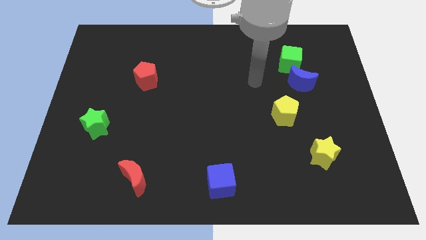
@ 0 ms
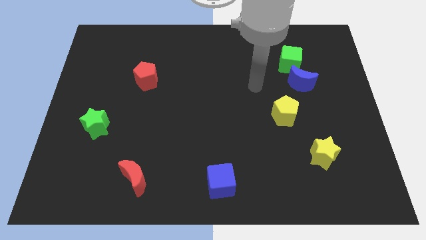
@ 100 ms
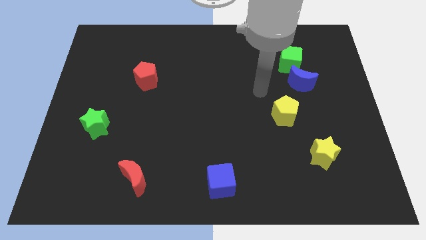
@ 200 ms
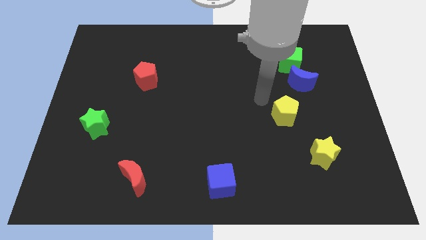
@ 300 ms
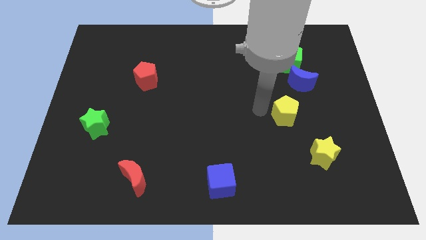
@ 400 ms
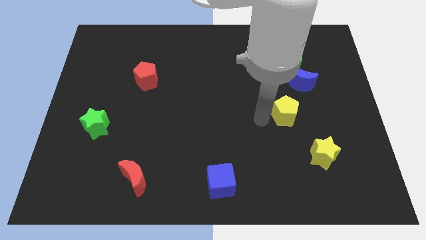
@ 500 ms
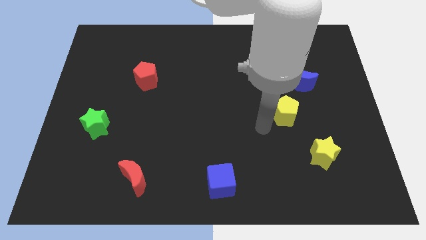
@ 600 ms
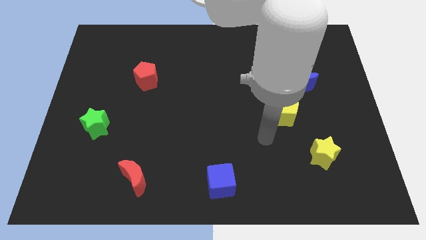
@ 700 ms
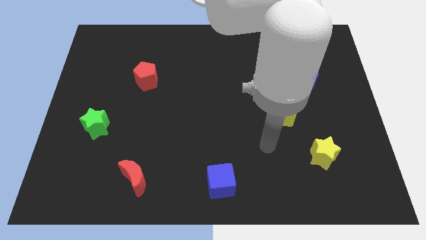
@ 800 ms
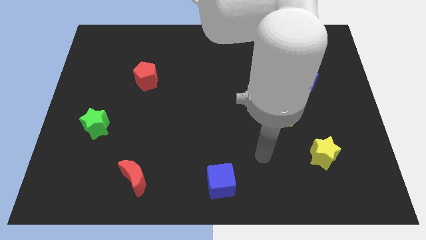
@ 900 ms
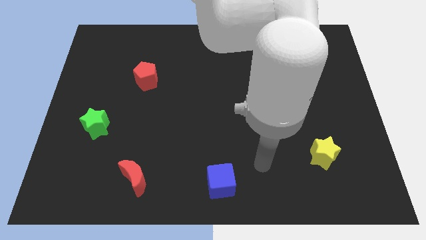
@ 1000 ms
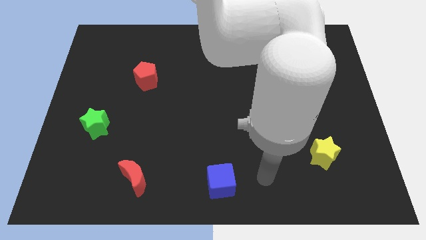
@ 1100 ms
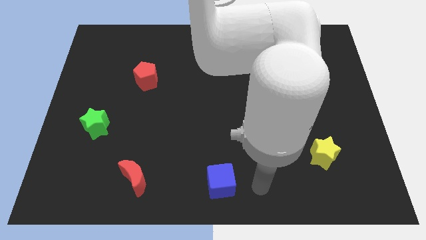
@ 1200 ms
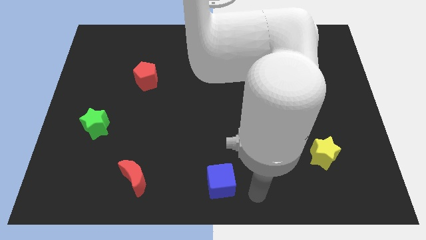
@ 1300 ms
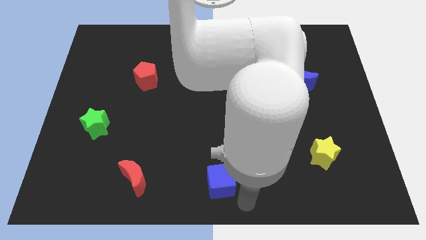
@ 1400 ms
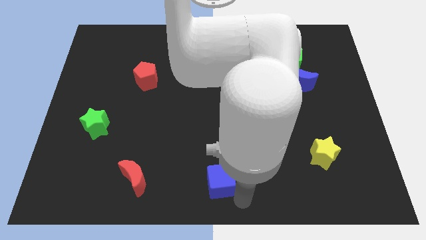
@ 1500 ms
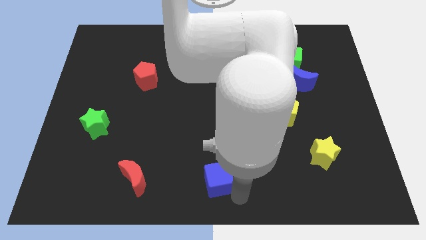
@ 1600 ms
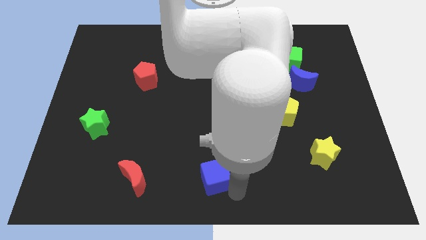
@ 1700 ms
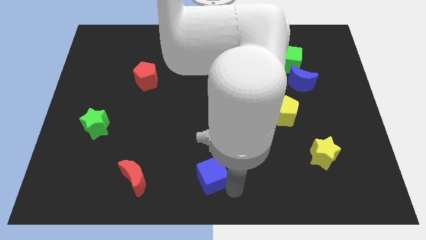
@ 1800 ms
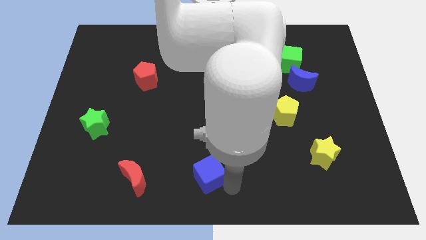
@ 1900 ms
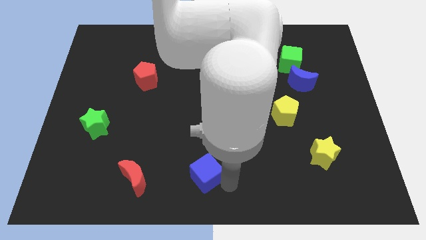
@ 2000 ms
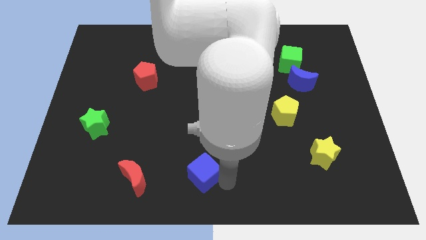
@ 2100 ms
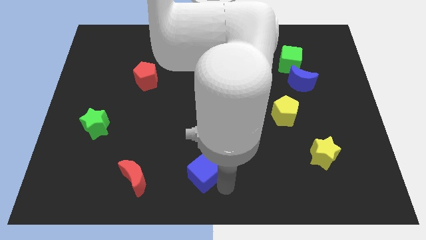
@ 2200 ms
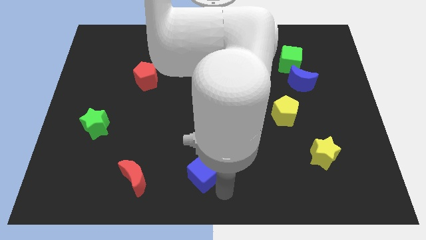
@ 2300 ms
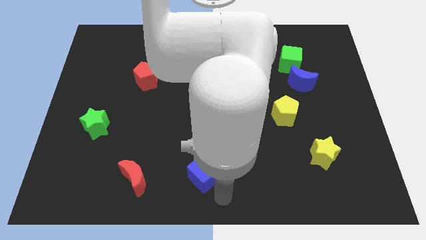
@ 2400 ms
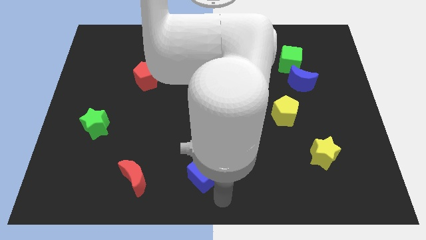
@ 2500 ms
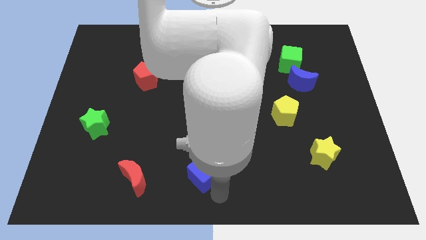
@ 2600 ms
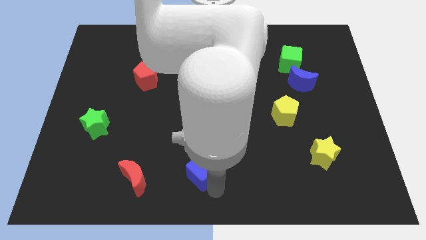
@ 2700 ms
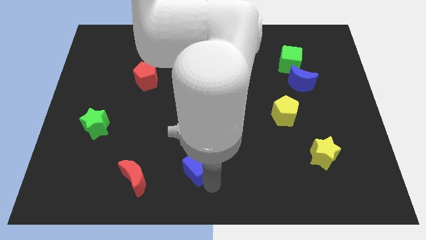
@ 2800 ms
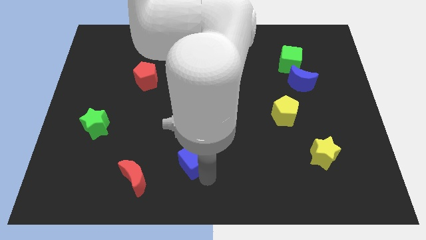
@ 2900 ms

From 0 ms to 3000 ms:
slide the blue cube up and left a little bit

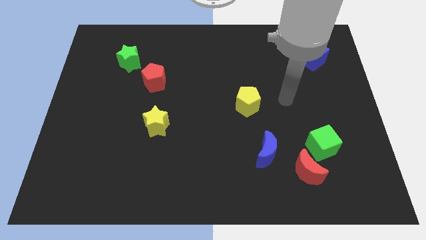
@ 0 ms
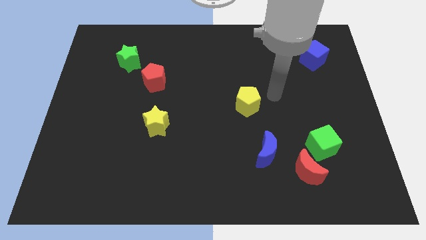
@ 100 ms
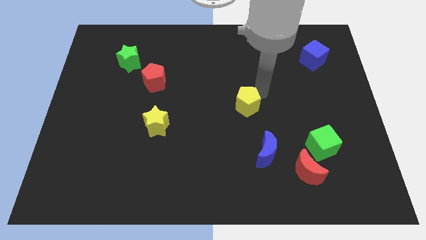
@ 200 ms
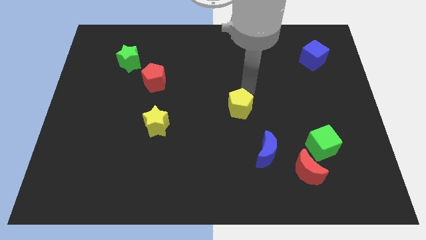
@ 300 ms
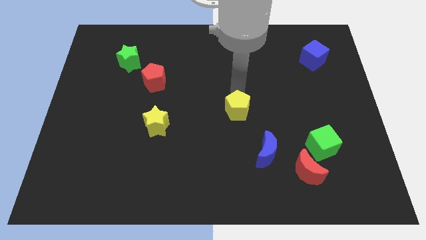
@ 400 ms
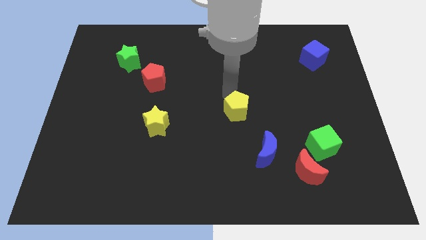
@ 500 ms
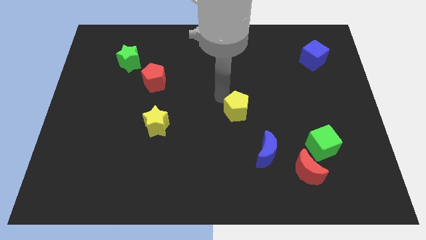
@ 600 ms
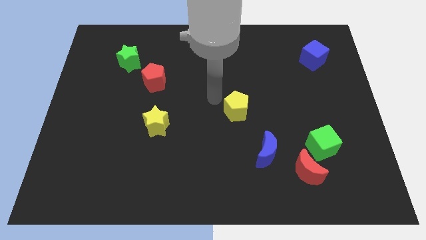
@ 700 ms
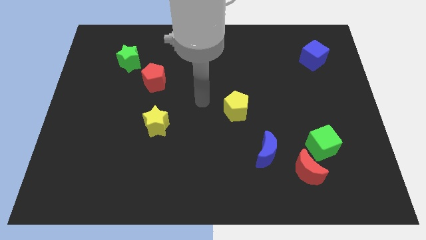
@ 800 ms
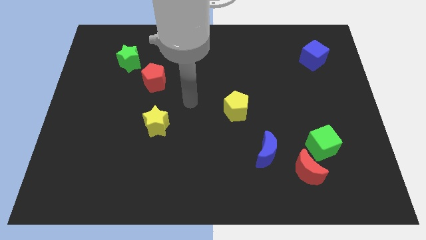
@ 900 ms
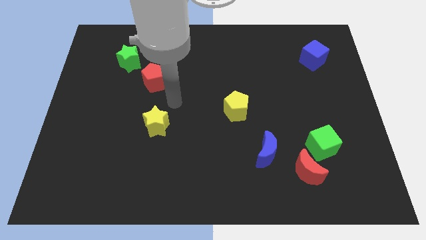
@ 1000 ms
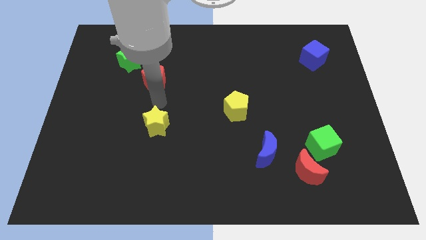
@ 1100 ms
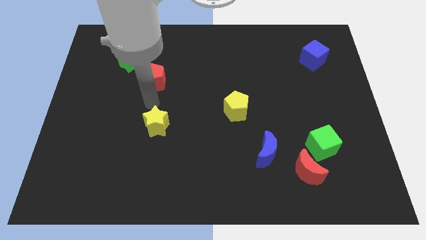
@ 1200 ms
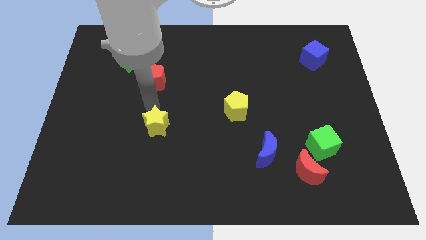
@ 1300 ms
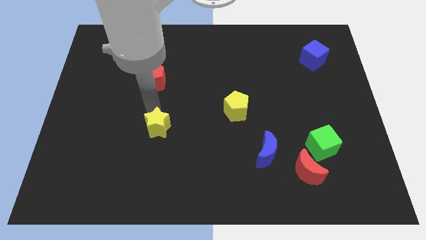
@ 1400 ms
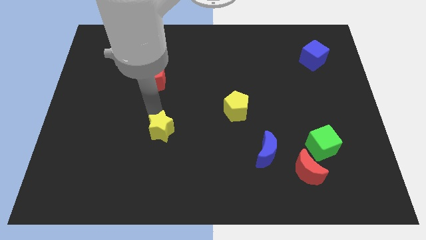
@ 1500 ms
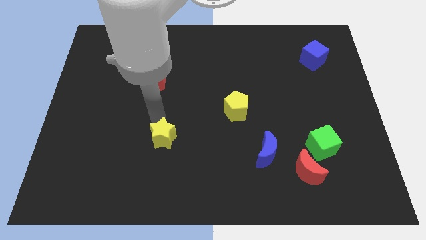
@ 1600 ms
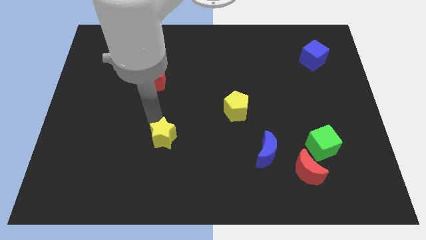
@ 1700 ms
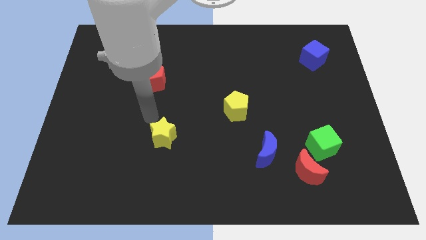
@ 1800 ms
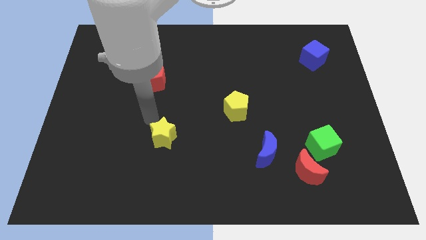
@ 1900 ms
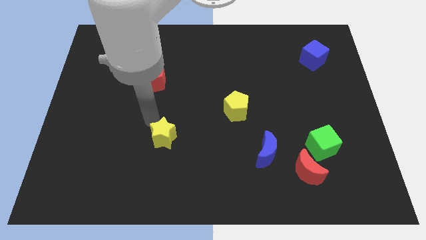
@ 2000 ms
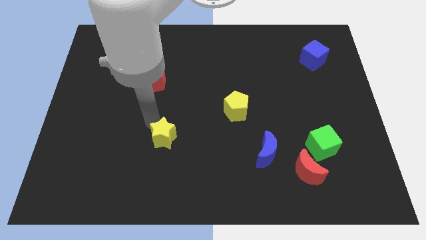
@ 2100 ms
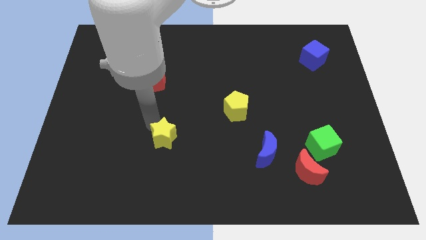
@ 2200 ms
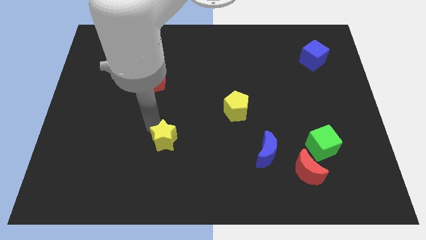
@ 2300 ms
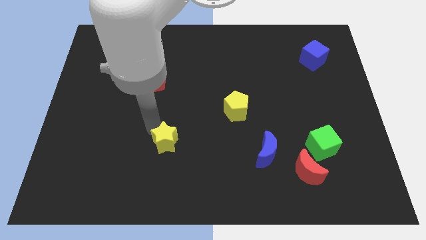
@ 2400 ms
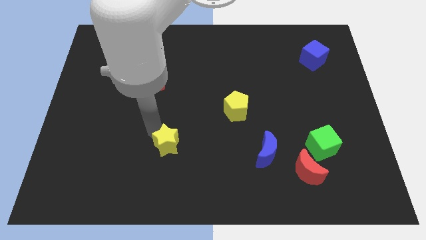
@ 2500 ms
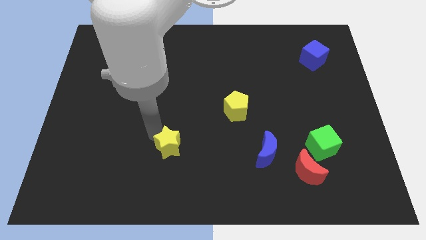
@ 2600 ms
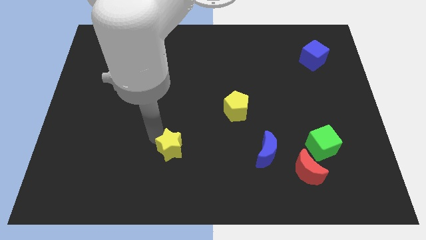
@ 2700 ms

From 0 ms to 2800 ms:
move the yellow star a bit diagonally downwards and right

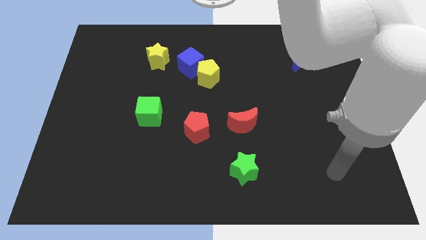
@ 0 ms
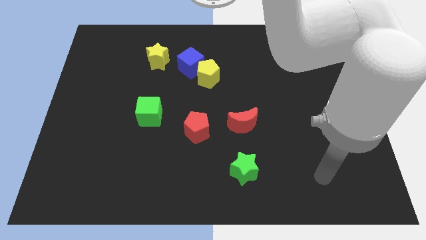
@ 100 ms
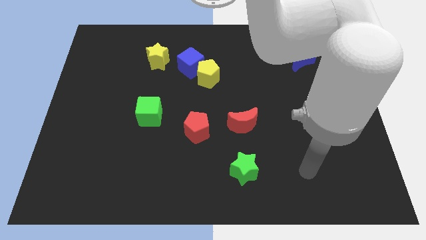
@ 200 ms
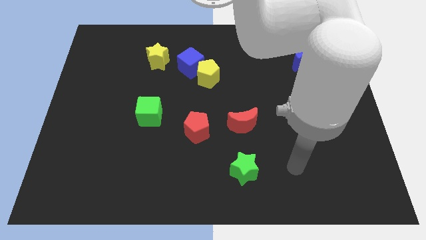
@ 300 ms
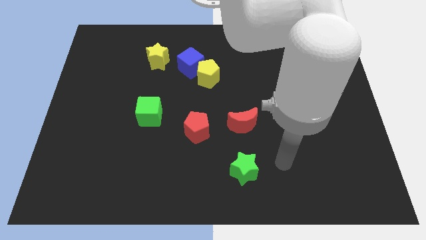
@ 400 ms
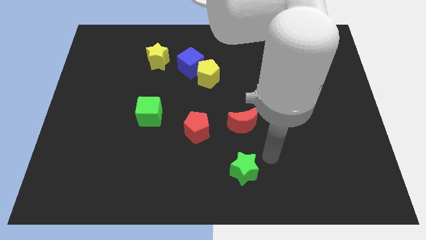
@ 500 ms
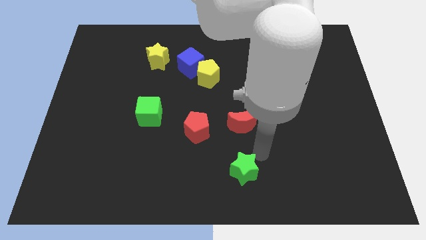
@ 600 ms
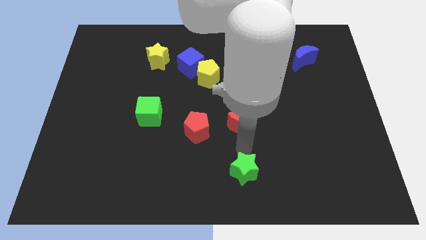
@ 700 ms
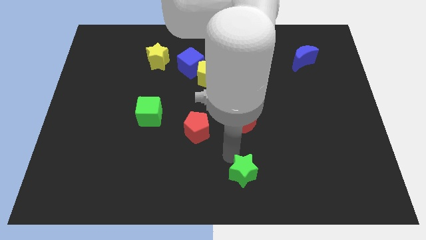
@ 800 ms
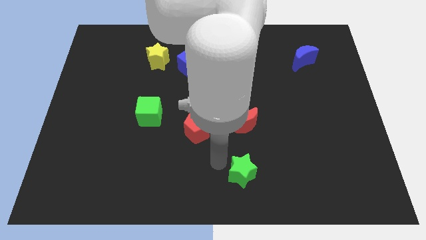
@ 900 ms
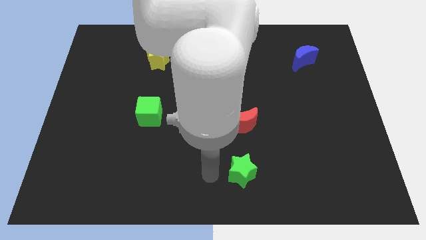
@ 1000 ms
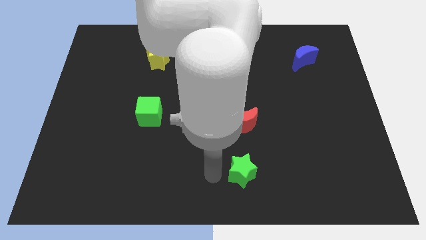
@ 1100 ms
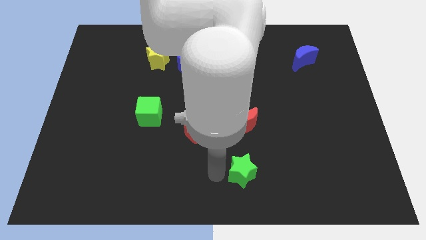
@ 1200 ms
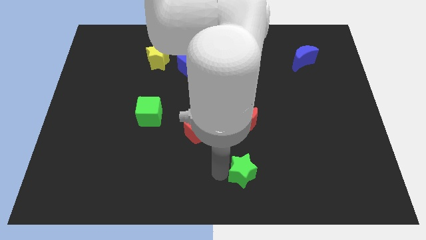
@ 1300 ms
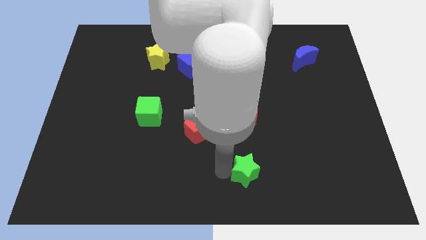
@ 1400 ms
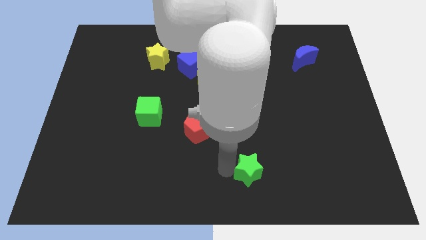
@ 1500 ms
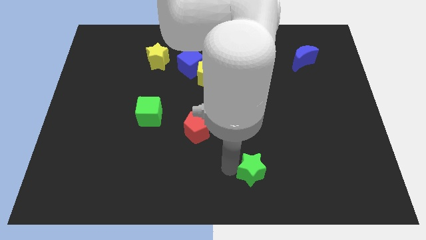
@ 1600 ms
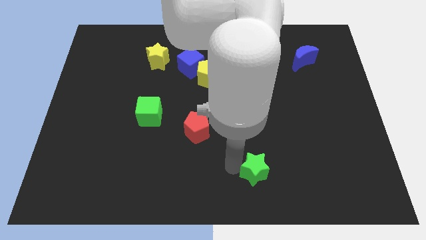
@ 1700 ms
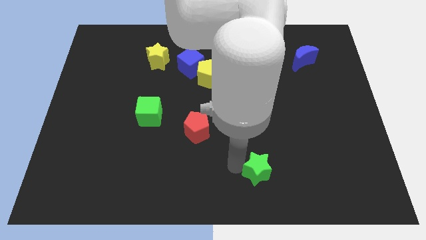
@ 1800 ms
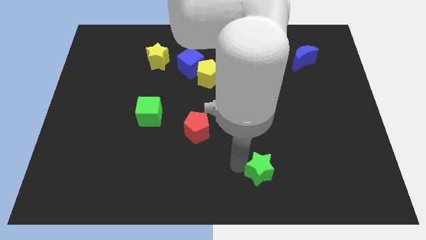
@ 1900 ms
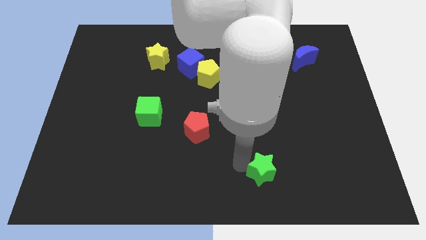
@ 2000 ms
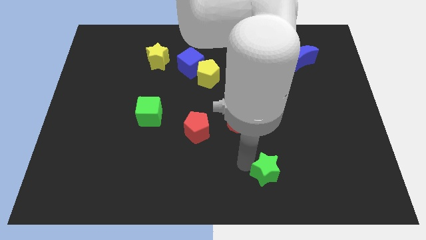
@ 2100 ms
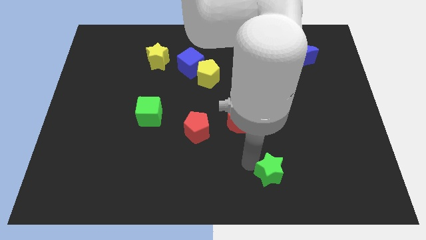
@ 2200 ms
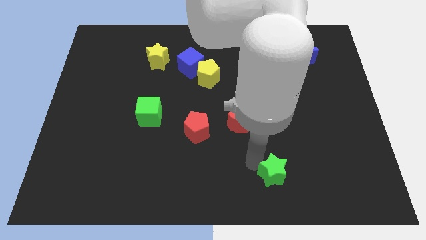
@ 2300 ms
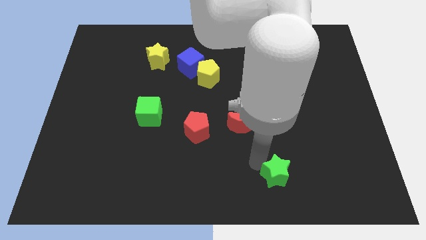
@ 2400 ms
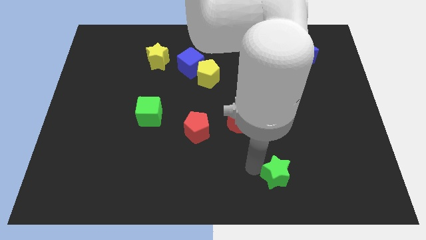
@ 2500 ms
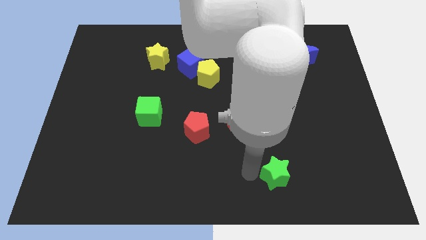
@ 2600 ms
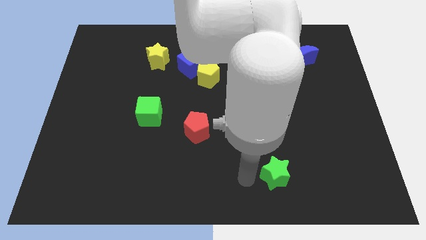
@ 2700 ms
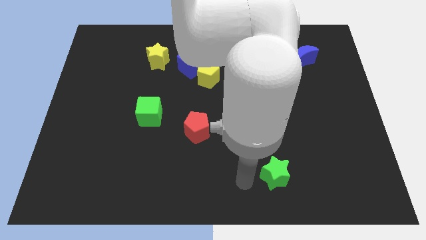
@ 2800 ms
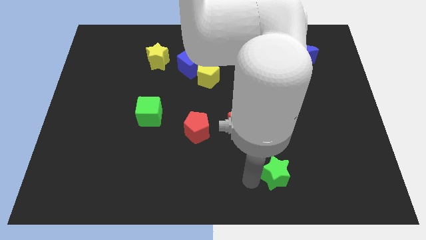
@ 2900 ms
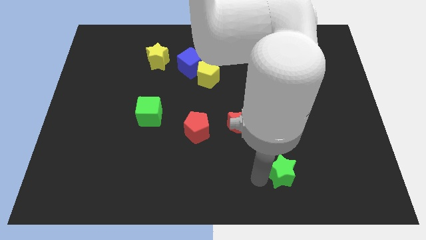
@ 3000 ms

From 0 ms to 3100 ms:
slide the green star a bit right
